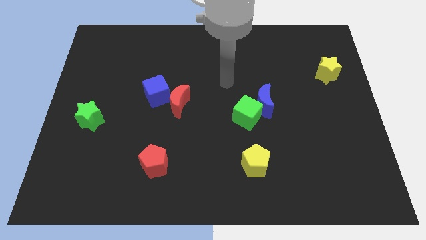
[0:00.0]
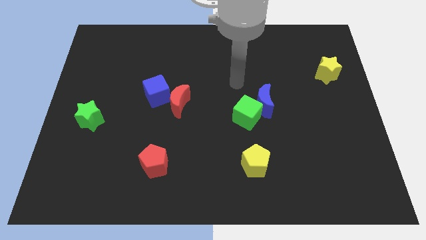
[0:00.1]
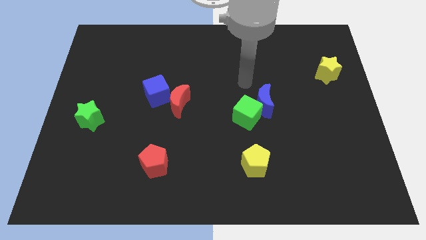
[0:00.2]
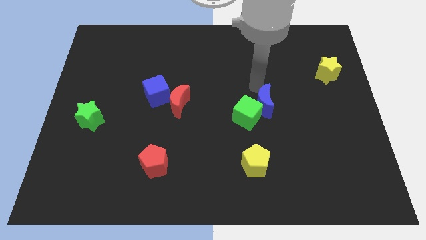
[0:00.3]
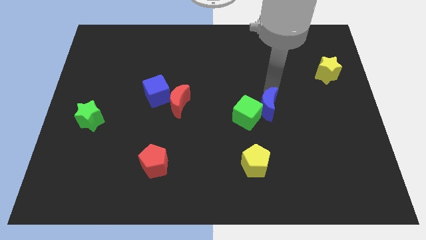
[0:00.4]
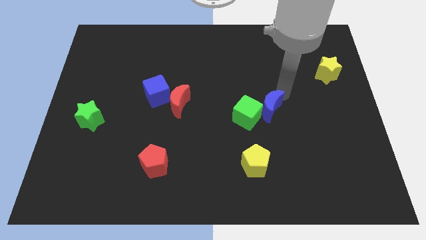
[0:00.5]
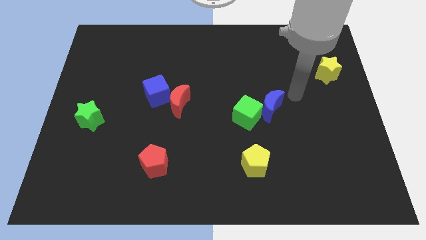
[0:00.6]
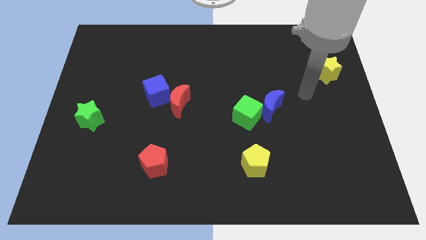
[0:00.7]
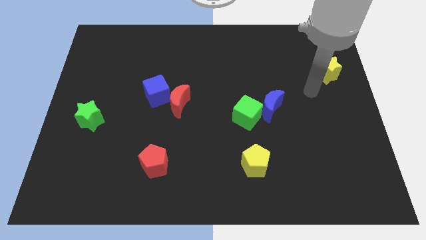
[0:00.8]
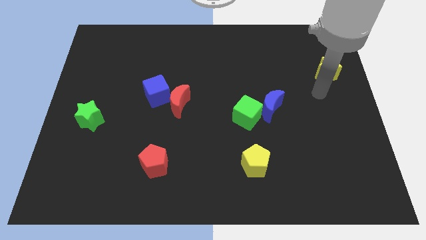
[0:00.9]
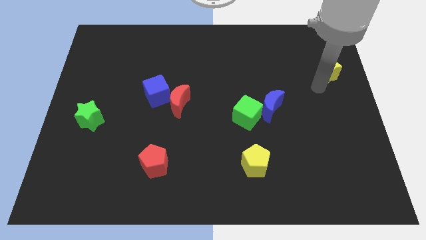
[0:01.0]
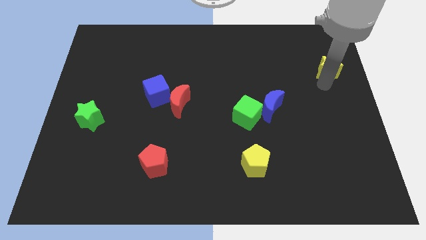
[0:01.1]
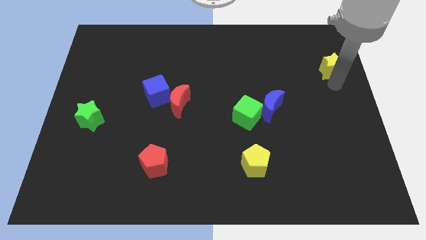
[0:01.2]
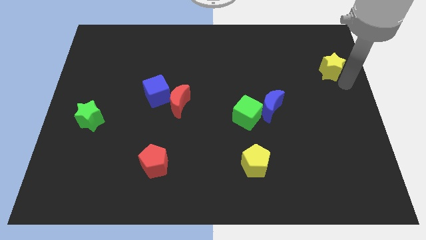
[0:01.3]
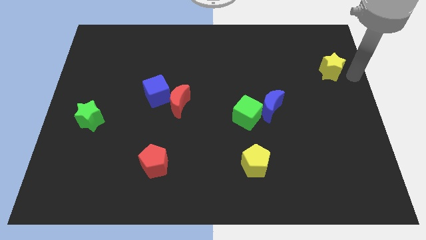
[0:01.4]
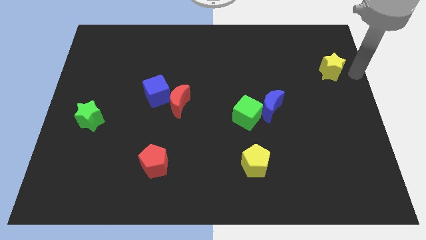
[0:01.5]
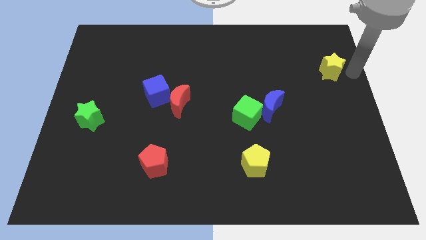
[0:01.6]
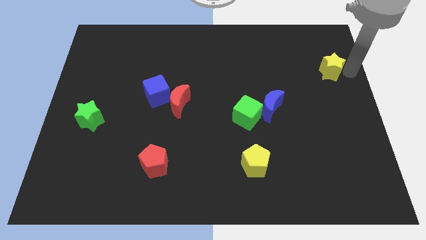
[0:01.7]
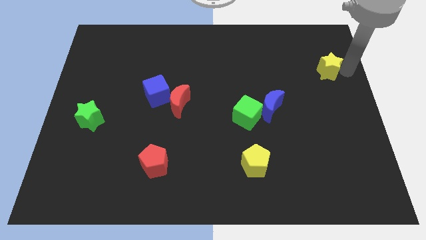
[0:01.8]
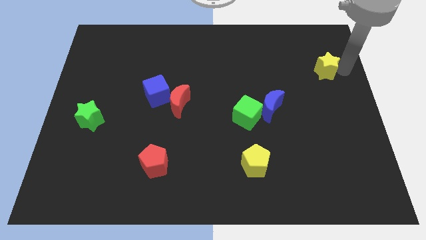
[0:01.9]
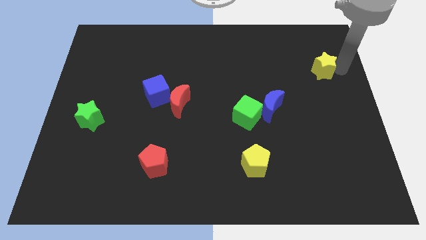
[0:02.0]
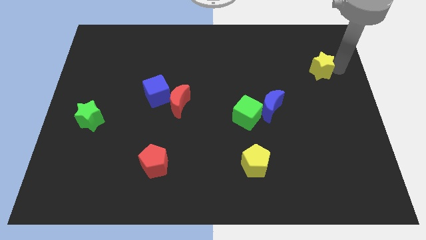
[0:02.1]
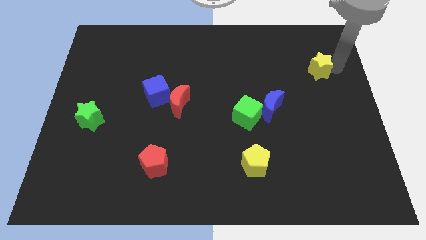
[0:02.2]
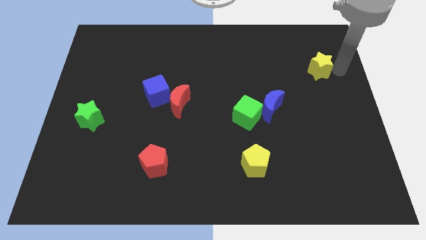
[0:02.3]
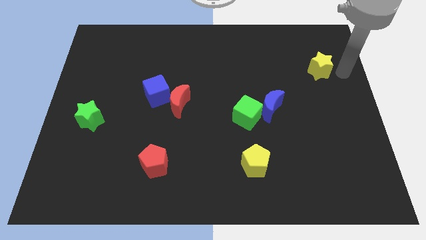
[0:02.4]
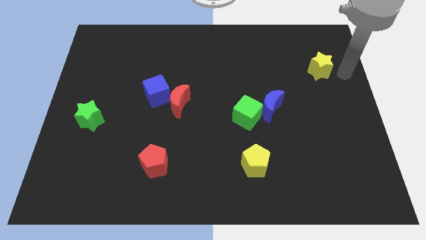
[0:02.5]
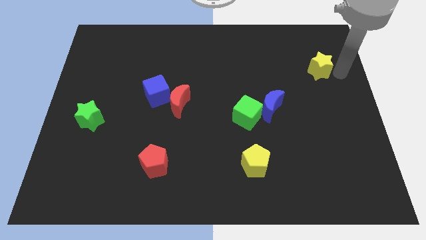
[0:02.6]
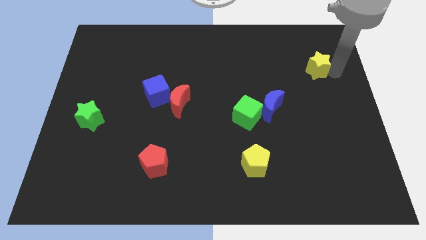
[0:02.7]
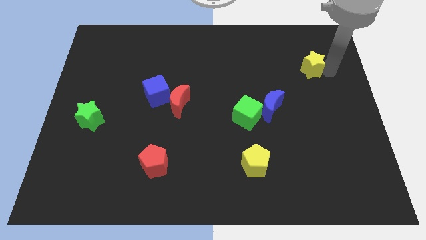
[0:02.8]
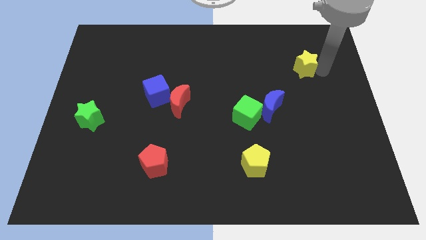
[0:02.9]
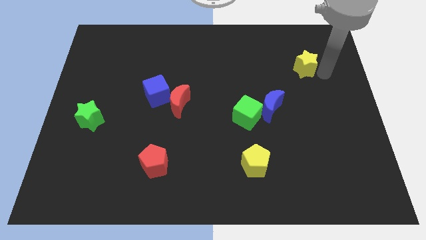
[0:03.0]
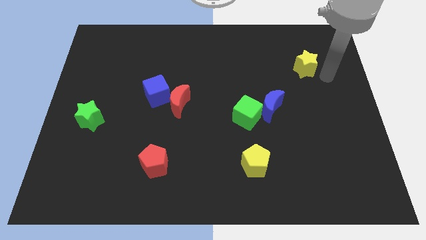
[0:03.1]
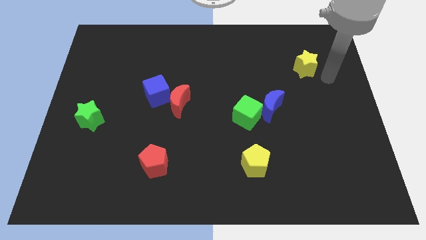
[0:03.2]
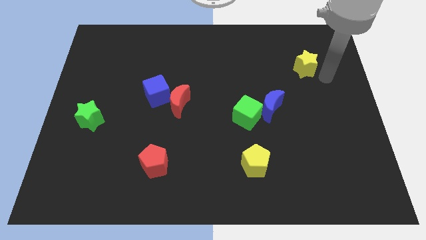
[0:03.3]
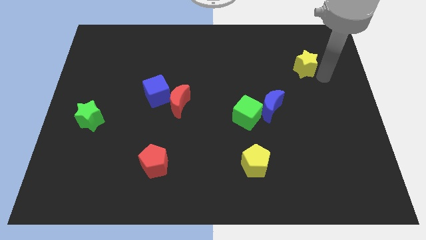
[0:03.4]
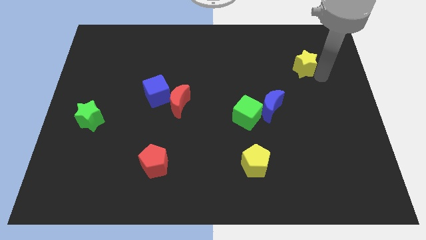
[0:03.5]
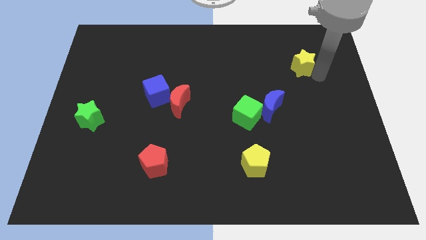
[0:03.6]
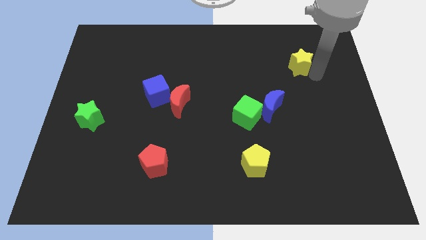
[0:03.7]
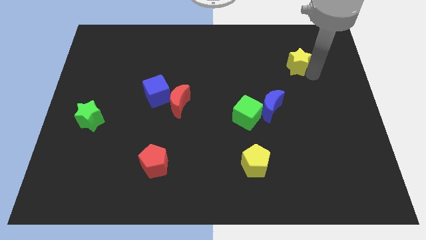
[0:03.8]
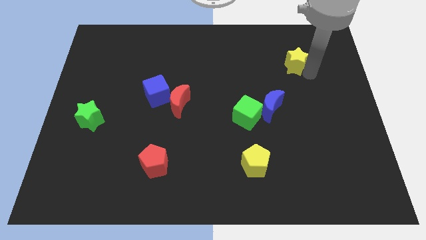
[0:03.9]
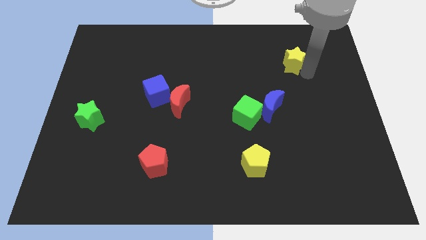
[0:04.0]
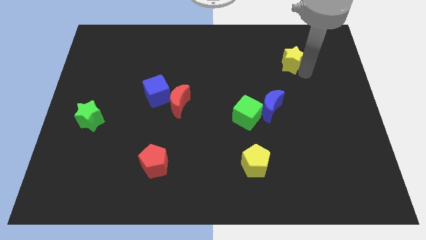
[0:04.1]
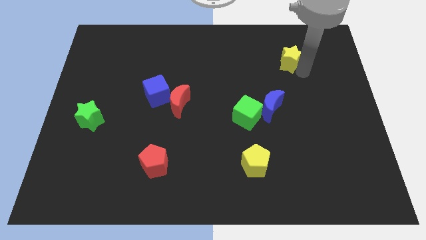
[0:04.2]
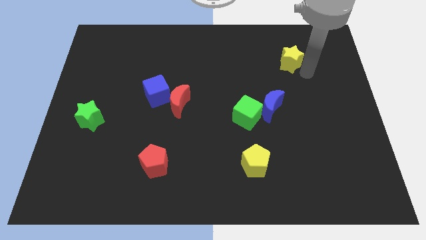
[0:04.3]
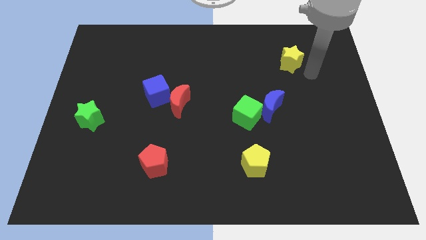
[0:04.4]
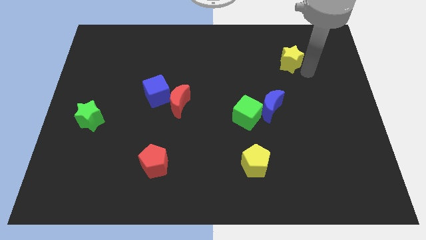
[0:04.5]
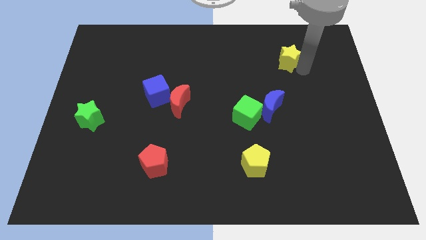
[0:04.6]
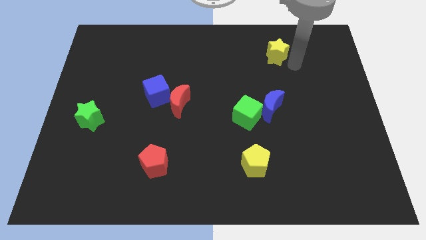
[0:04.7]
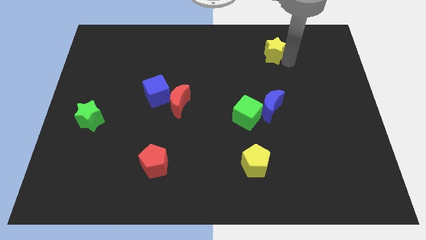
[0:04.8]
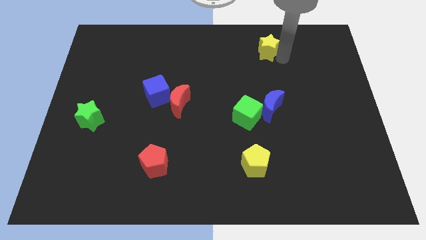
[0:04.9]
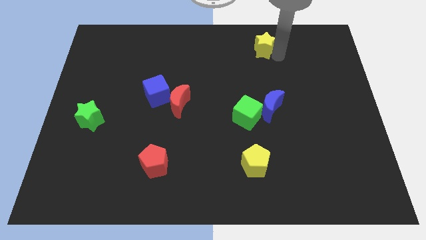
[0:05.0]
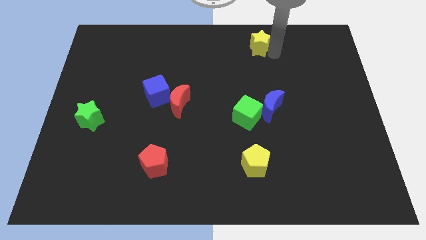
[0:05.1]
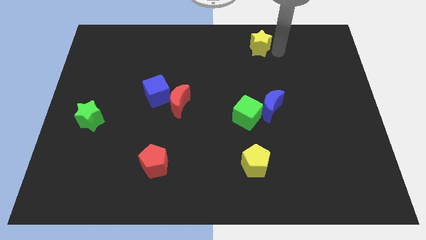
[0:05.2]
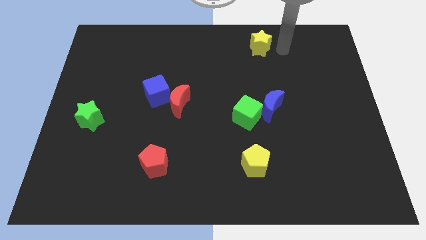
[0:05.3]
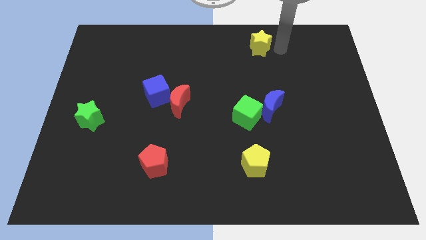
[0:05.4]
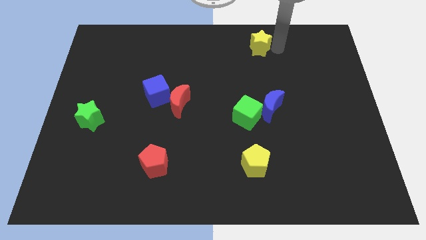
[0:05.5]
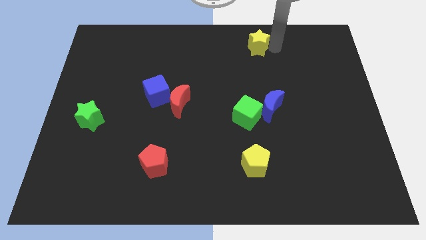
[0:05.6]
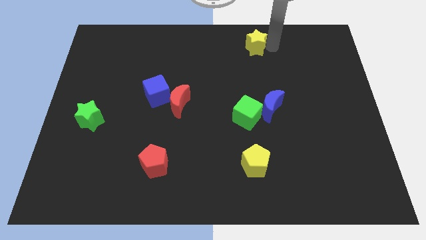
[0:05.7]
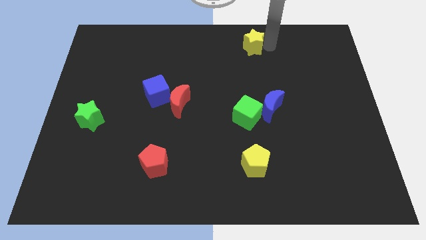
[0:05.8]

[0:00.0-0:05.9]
move the yellow star to the top

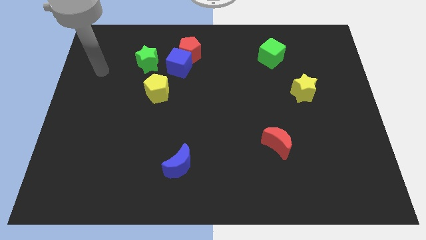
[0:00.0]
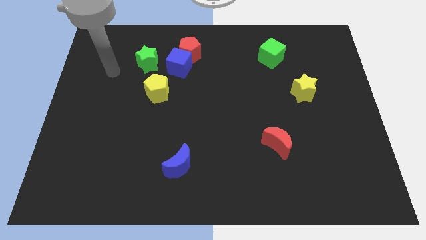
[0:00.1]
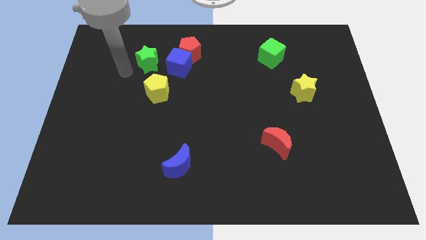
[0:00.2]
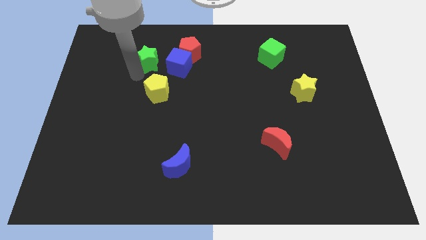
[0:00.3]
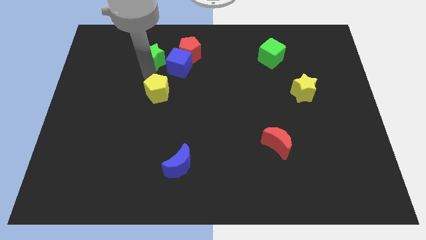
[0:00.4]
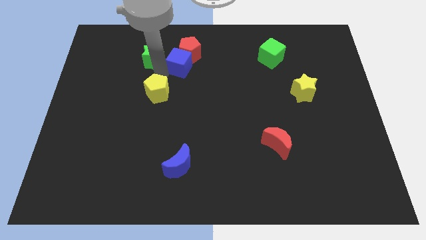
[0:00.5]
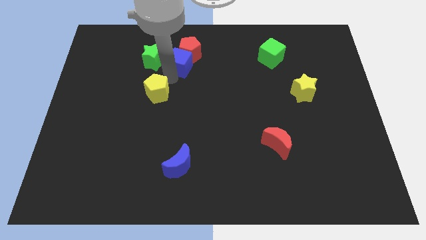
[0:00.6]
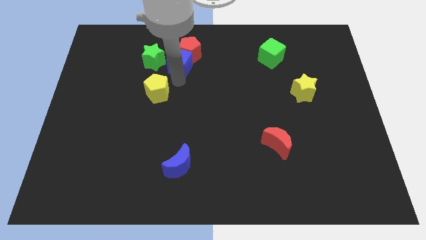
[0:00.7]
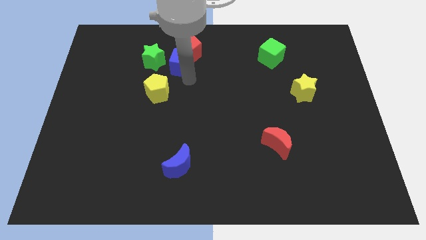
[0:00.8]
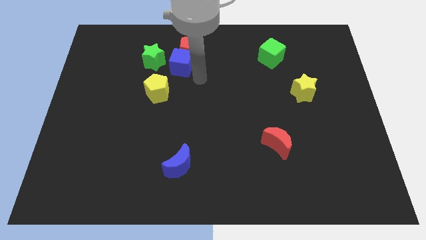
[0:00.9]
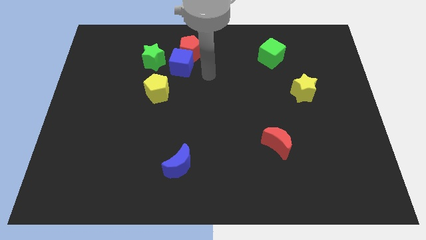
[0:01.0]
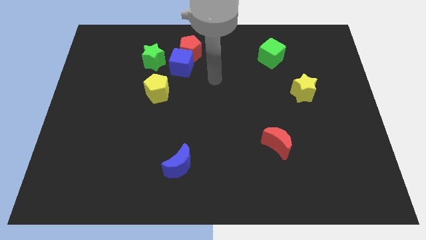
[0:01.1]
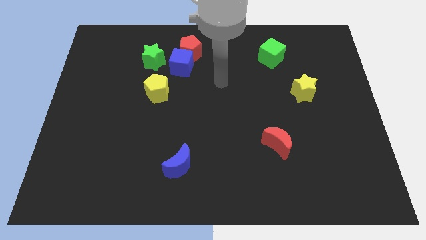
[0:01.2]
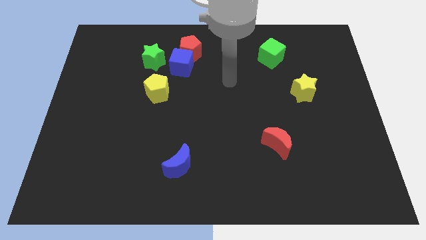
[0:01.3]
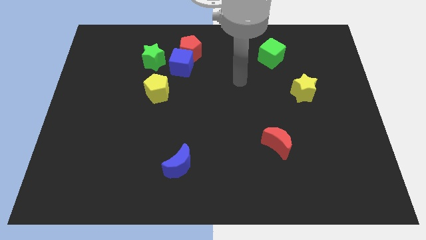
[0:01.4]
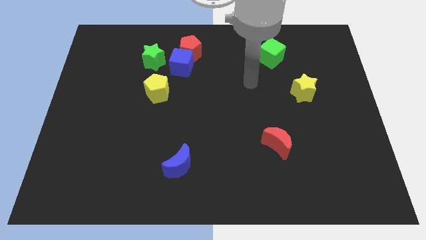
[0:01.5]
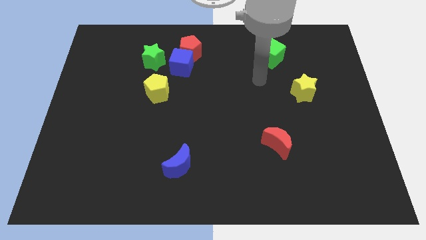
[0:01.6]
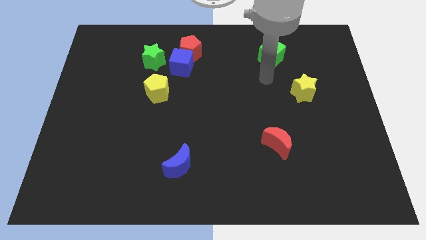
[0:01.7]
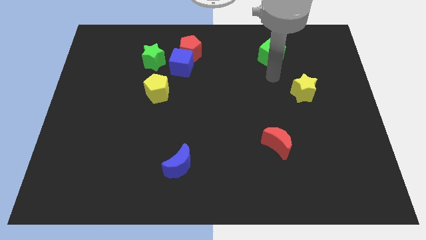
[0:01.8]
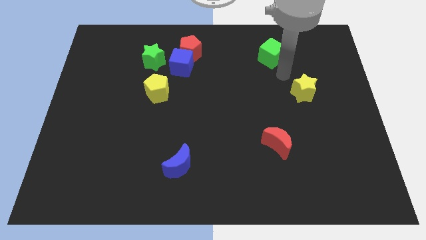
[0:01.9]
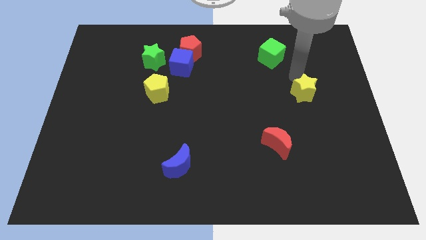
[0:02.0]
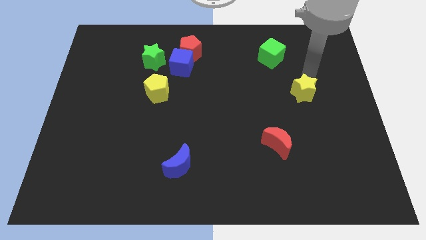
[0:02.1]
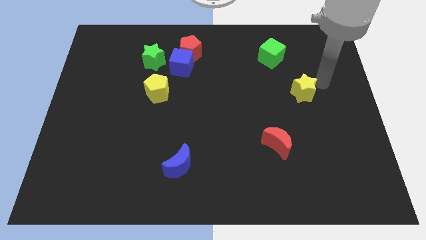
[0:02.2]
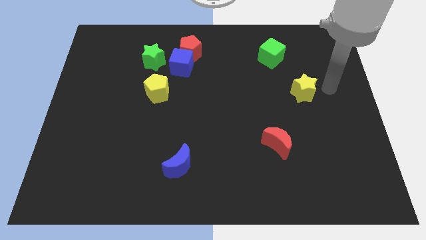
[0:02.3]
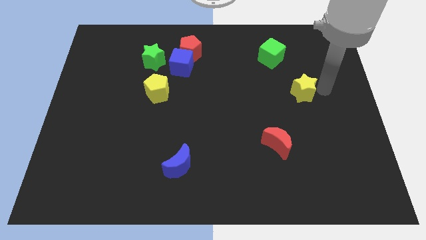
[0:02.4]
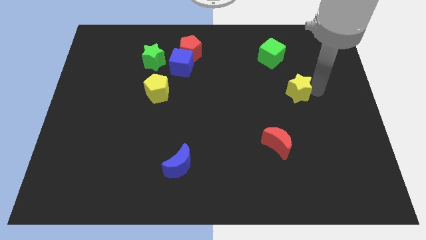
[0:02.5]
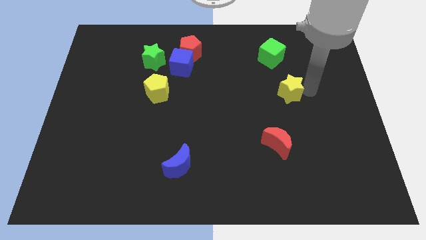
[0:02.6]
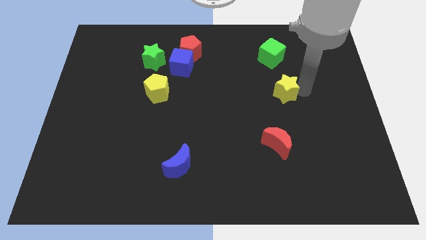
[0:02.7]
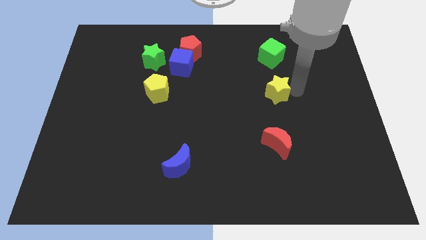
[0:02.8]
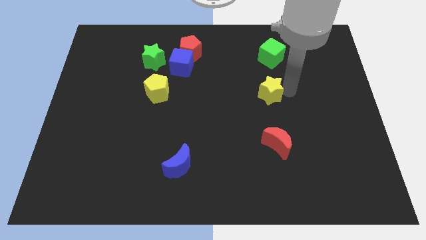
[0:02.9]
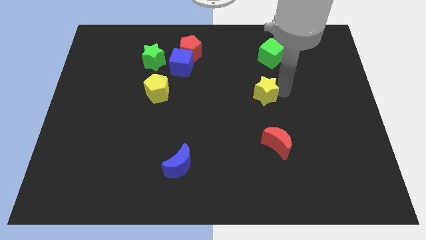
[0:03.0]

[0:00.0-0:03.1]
move the yellow star to the center of the board
